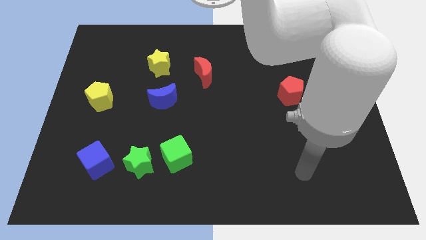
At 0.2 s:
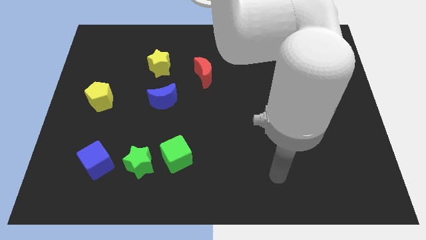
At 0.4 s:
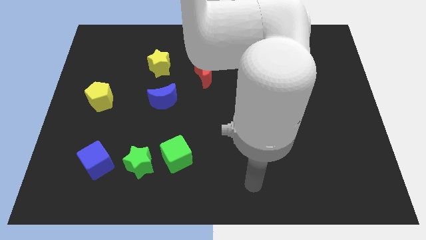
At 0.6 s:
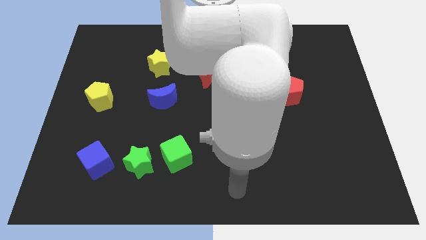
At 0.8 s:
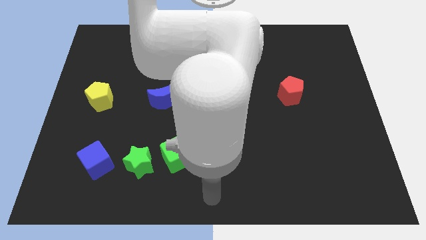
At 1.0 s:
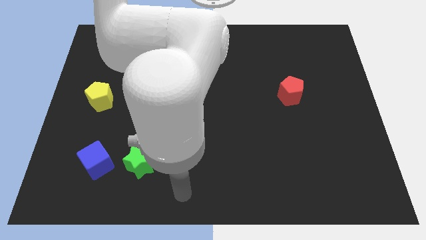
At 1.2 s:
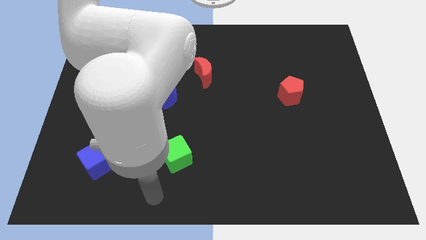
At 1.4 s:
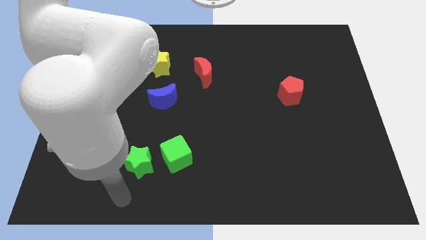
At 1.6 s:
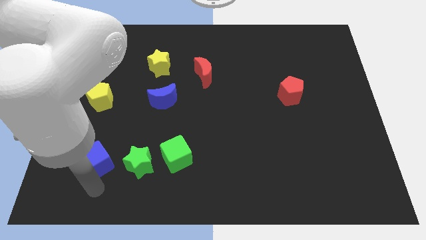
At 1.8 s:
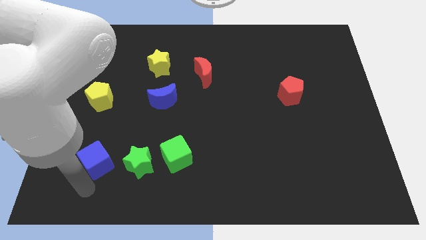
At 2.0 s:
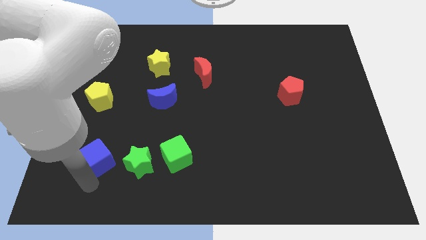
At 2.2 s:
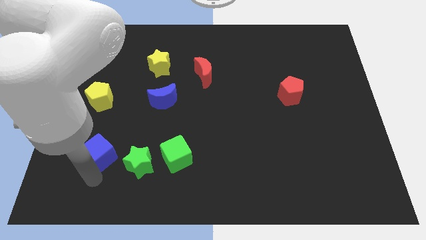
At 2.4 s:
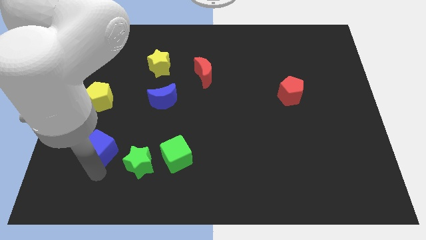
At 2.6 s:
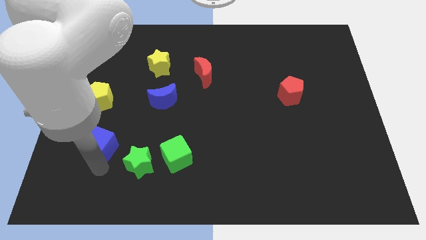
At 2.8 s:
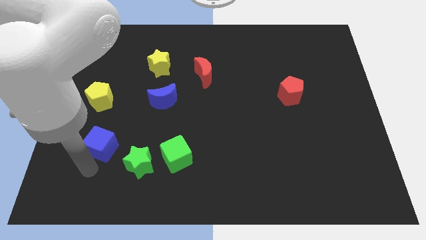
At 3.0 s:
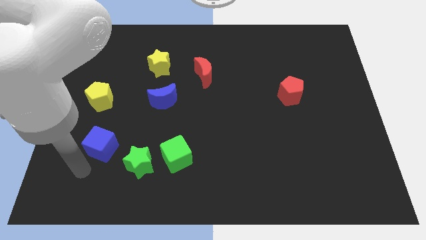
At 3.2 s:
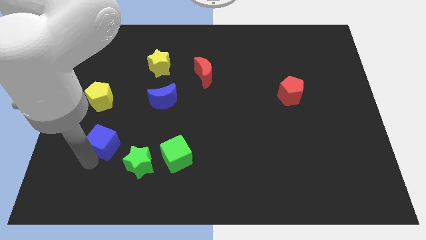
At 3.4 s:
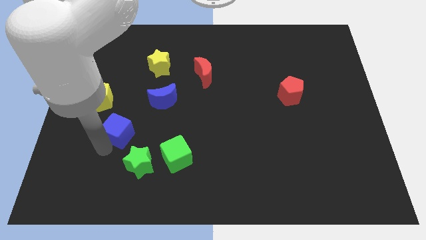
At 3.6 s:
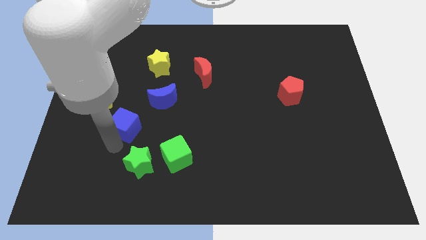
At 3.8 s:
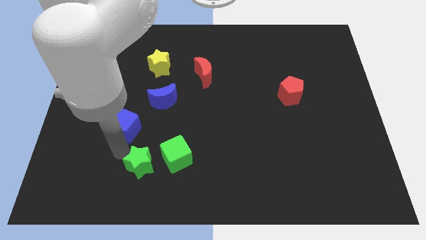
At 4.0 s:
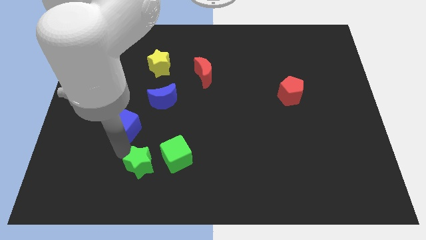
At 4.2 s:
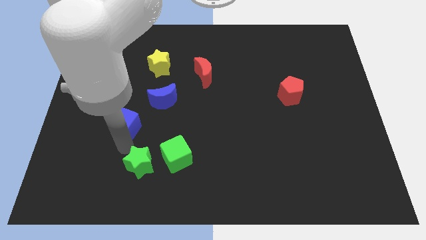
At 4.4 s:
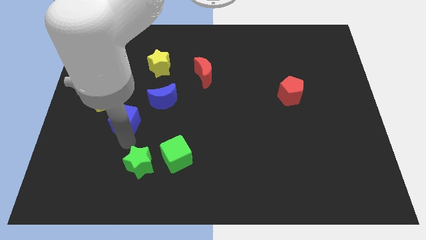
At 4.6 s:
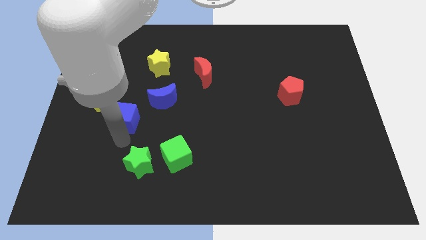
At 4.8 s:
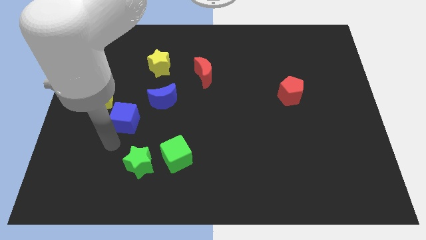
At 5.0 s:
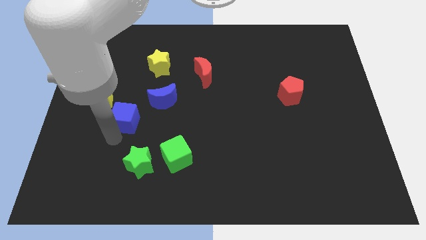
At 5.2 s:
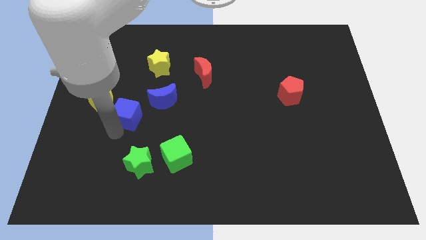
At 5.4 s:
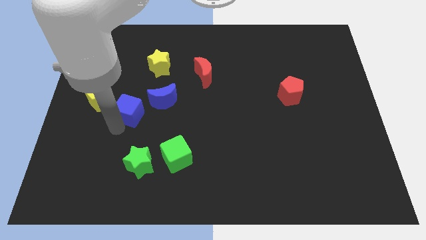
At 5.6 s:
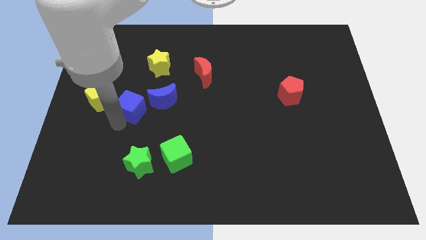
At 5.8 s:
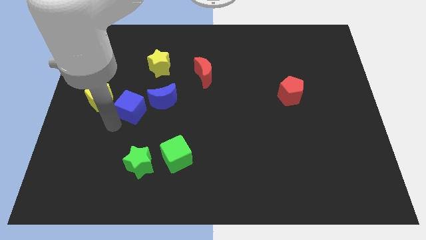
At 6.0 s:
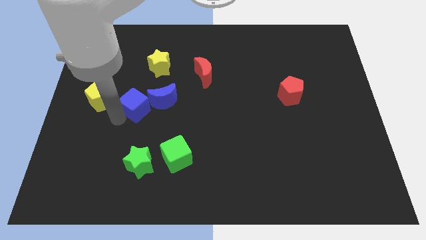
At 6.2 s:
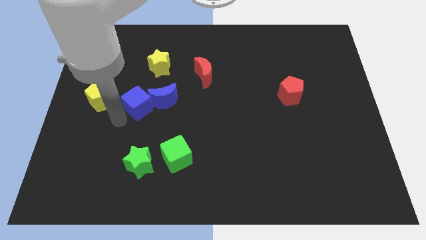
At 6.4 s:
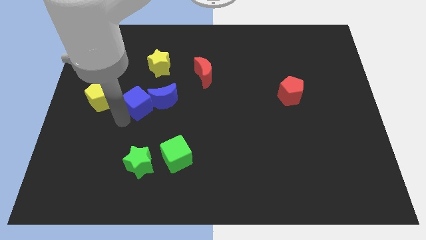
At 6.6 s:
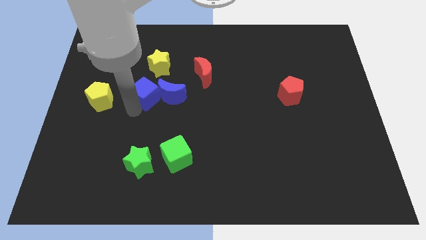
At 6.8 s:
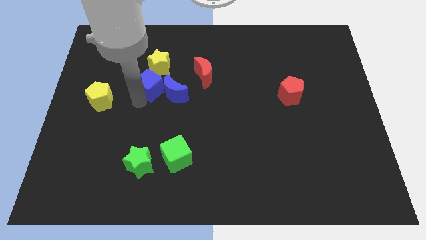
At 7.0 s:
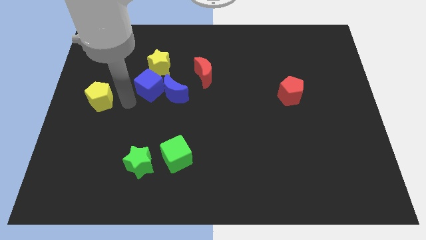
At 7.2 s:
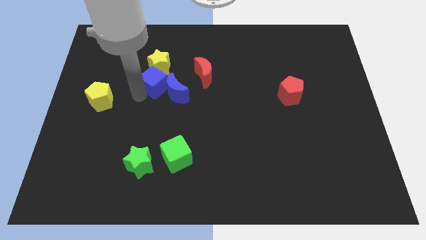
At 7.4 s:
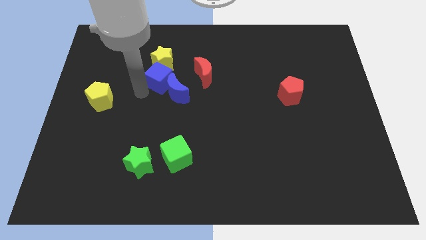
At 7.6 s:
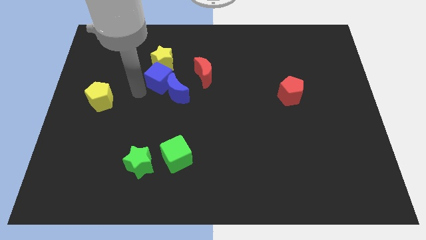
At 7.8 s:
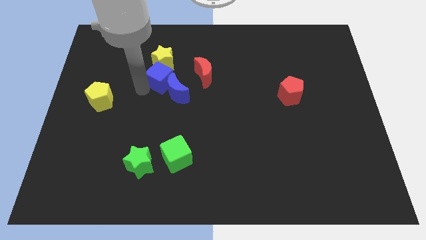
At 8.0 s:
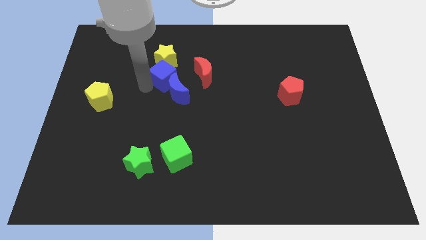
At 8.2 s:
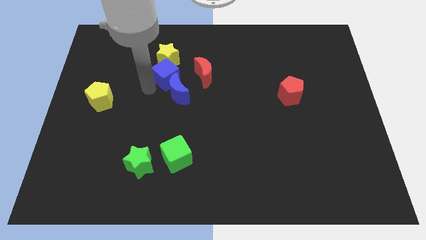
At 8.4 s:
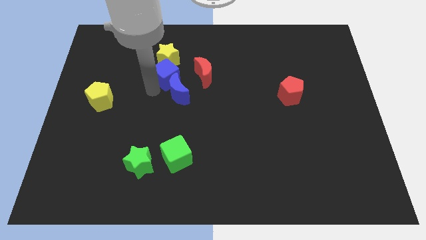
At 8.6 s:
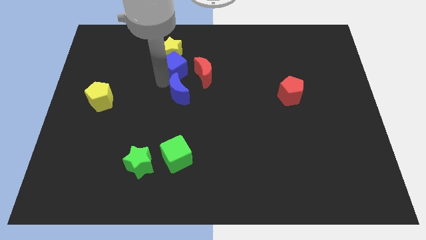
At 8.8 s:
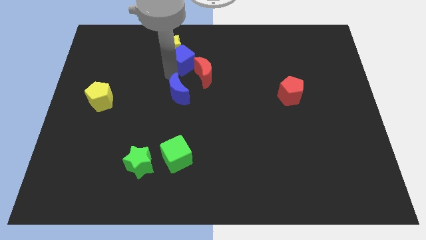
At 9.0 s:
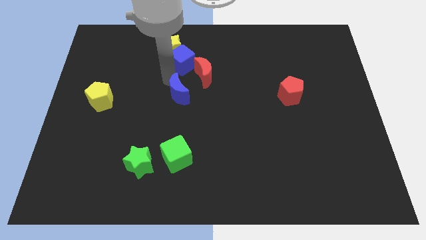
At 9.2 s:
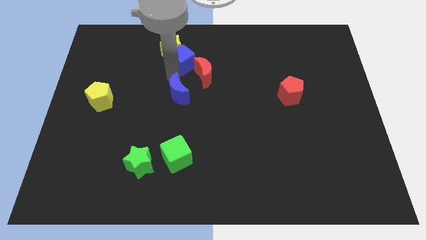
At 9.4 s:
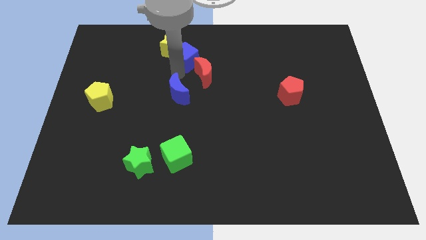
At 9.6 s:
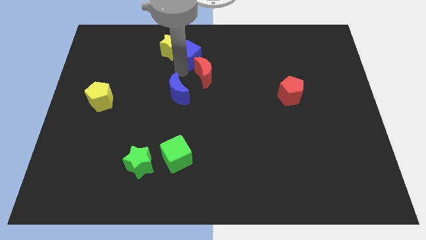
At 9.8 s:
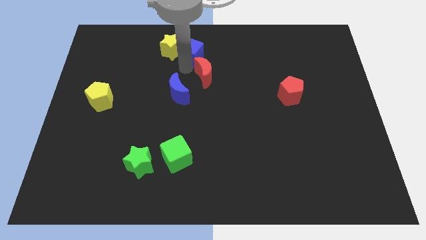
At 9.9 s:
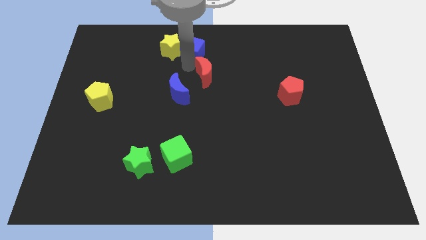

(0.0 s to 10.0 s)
push the blue cube to the top

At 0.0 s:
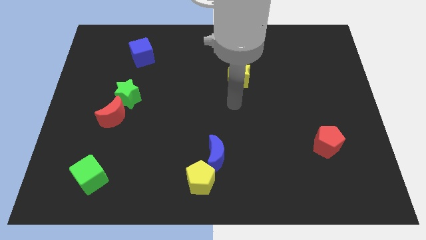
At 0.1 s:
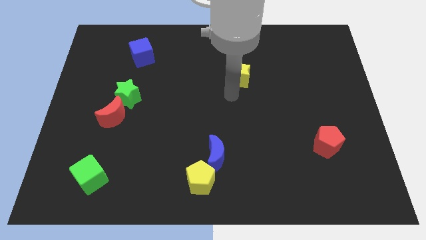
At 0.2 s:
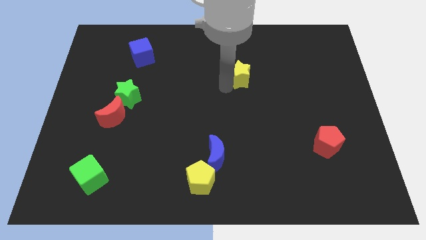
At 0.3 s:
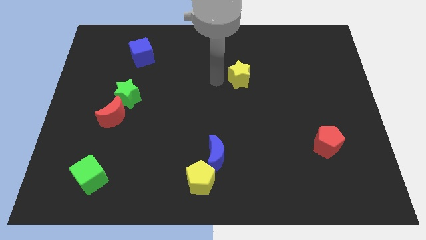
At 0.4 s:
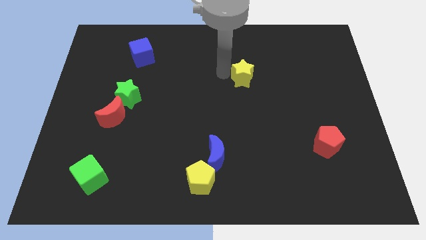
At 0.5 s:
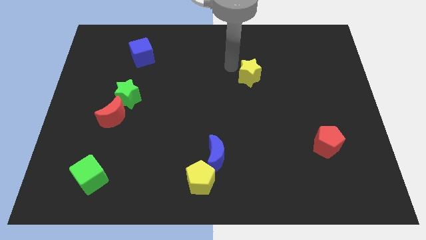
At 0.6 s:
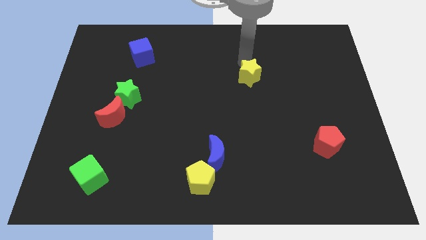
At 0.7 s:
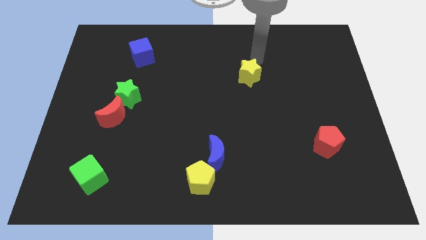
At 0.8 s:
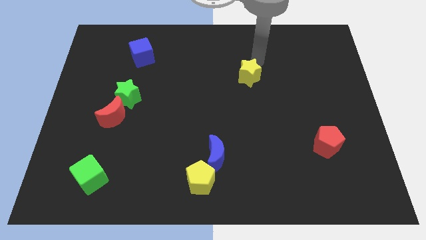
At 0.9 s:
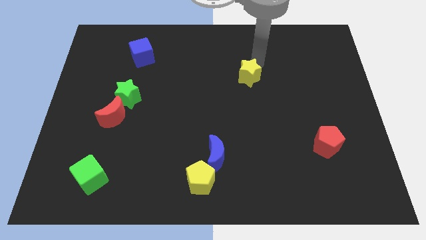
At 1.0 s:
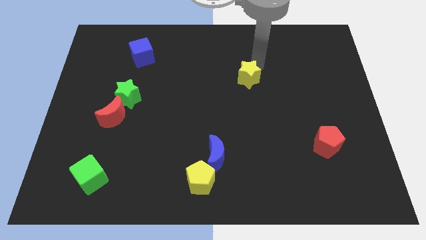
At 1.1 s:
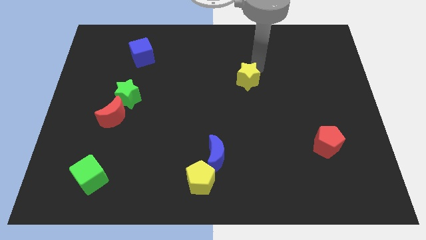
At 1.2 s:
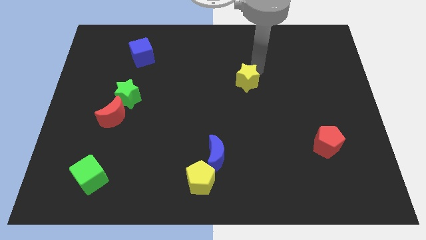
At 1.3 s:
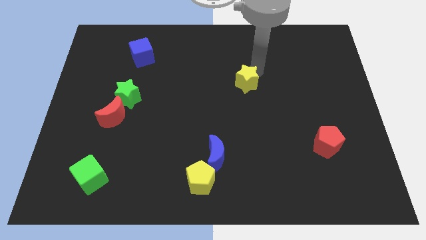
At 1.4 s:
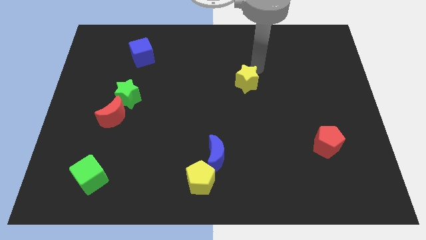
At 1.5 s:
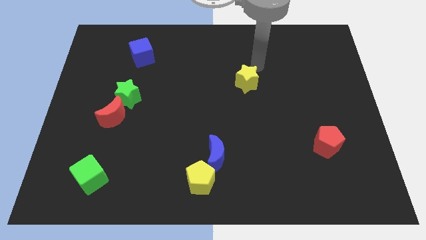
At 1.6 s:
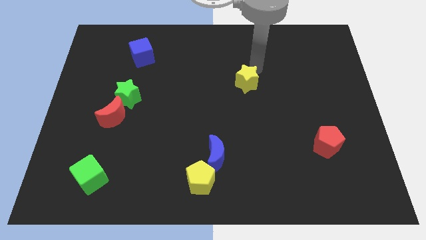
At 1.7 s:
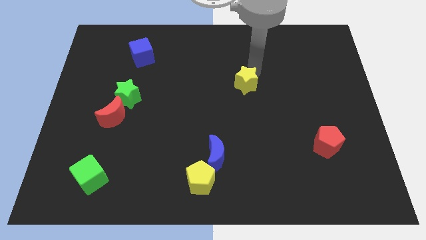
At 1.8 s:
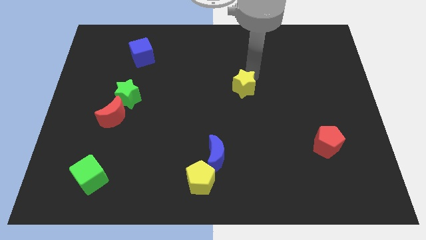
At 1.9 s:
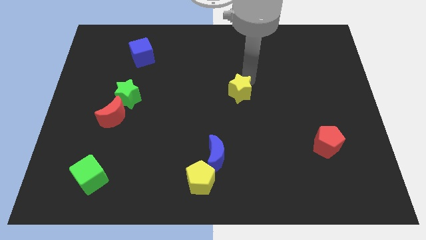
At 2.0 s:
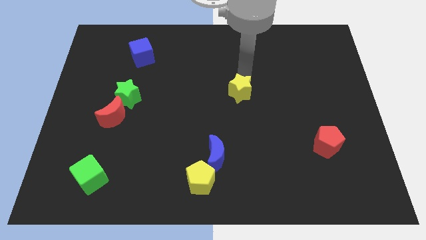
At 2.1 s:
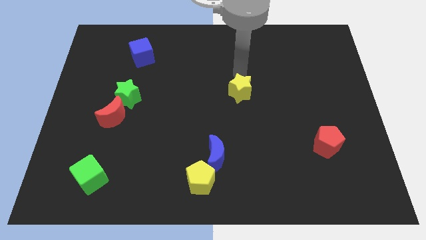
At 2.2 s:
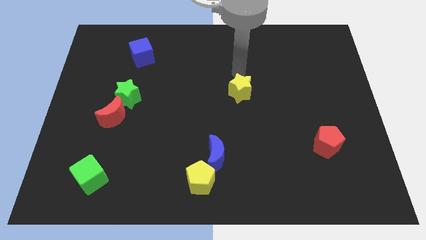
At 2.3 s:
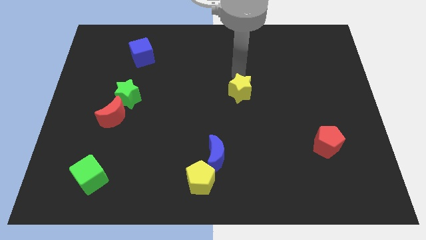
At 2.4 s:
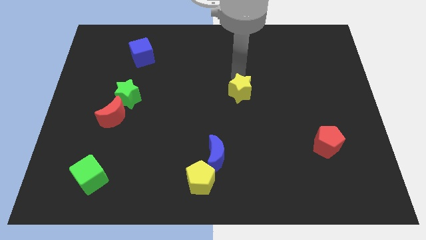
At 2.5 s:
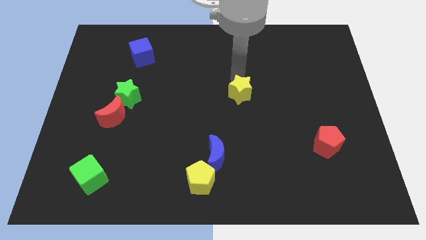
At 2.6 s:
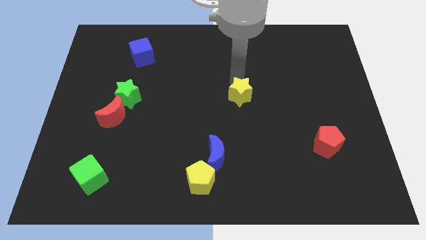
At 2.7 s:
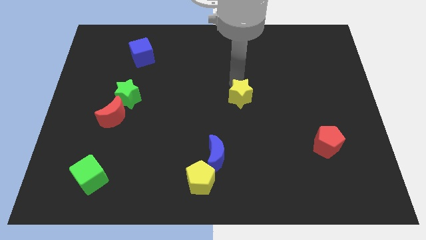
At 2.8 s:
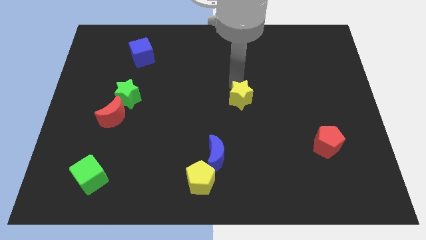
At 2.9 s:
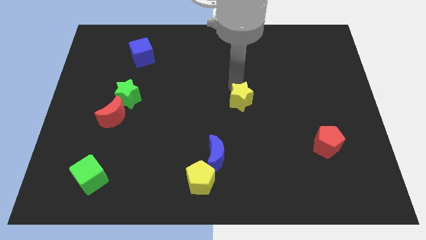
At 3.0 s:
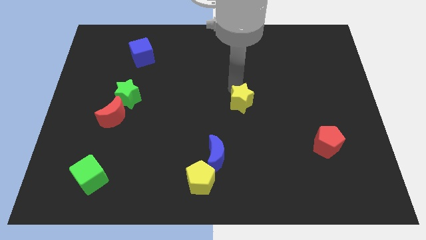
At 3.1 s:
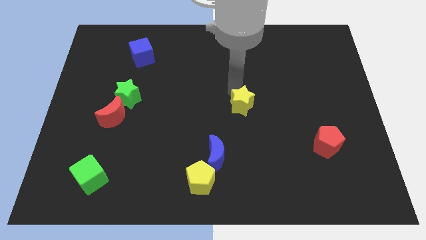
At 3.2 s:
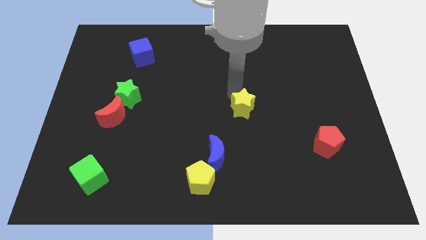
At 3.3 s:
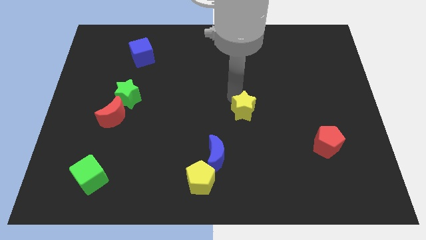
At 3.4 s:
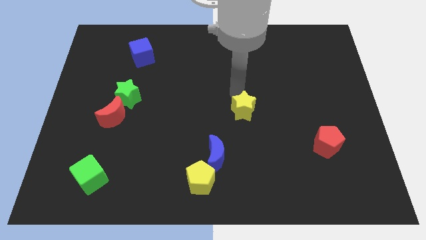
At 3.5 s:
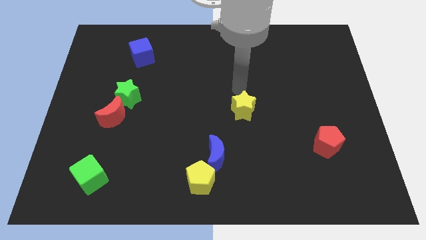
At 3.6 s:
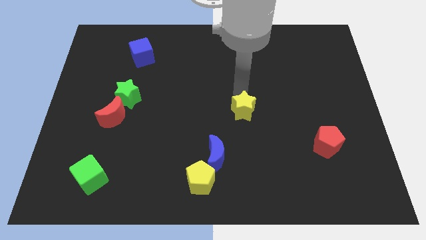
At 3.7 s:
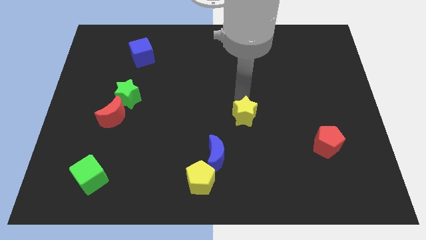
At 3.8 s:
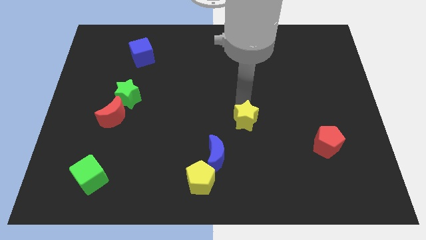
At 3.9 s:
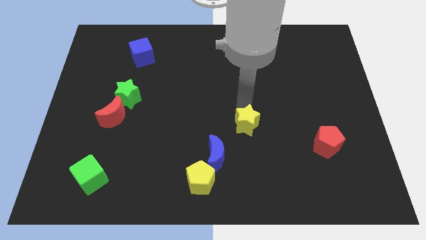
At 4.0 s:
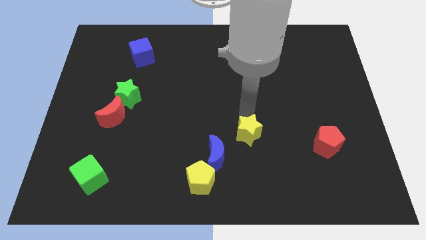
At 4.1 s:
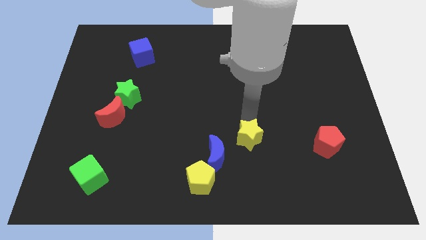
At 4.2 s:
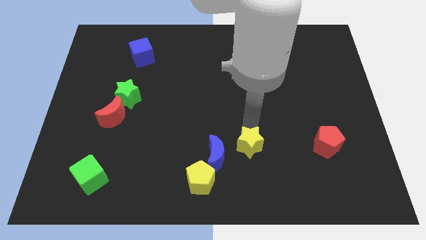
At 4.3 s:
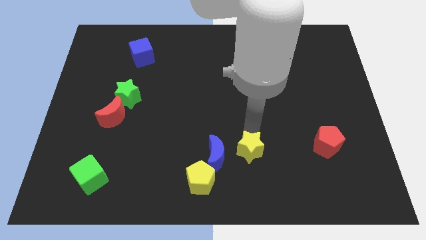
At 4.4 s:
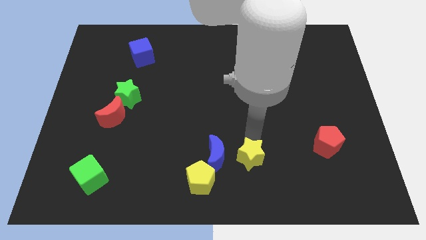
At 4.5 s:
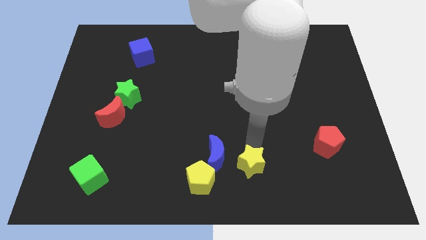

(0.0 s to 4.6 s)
put the yellow star to the bottom
